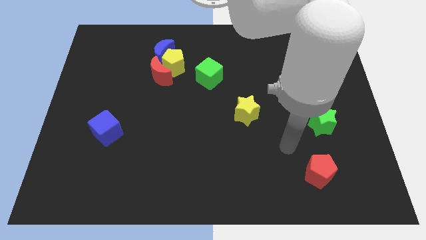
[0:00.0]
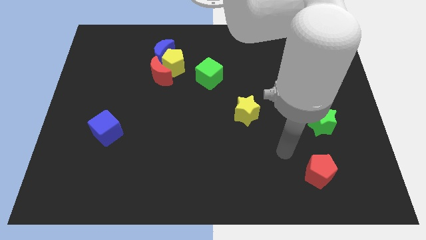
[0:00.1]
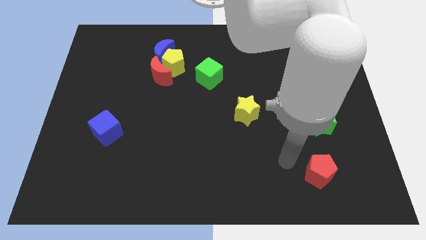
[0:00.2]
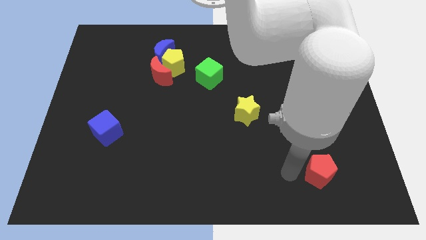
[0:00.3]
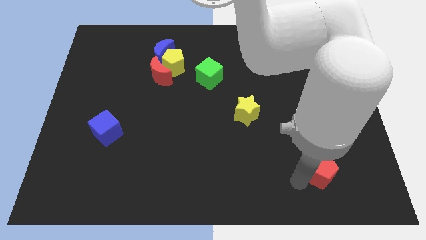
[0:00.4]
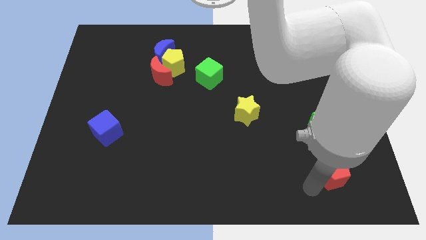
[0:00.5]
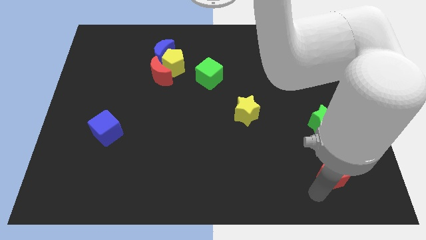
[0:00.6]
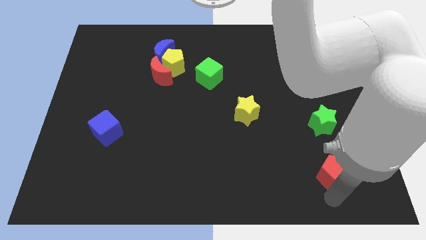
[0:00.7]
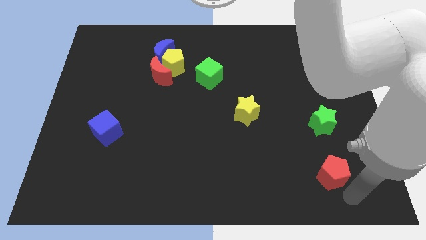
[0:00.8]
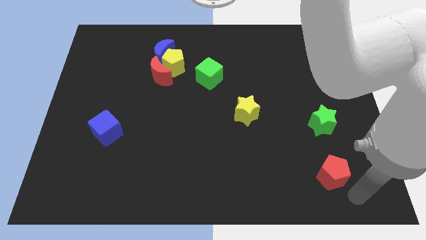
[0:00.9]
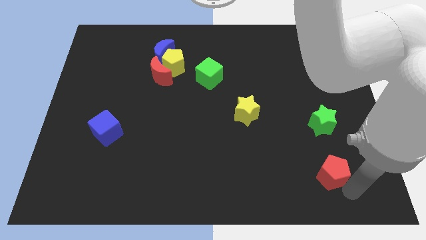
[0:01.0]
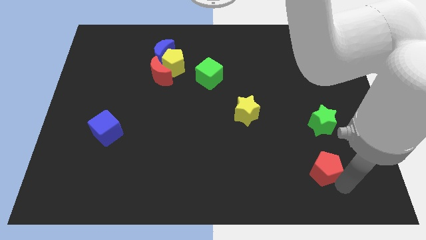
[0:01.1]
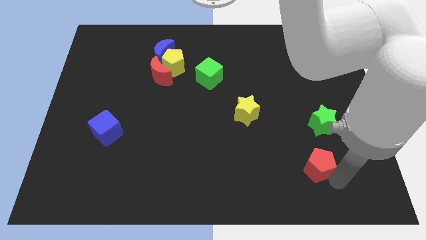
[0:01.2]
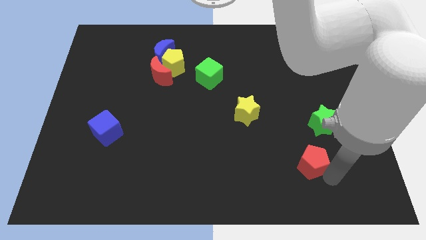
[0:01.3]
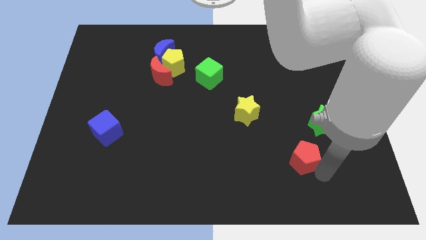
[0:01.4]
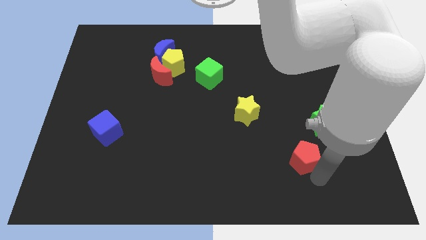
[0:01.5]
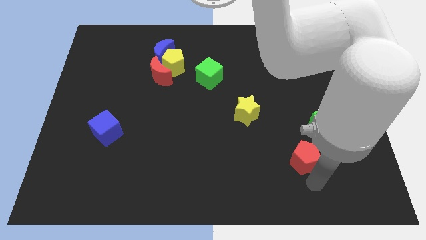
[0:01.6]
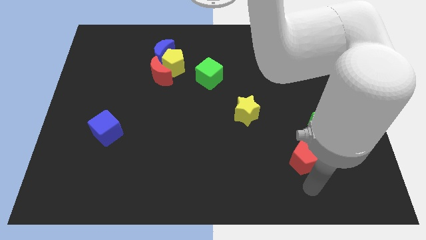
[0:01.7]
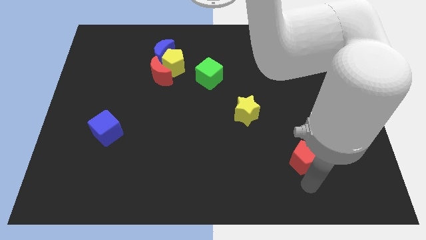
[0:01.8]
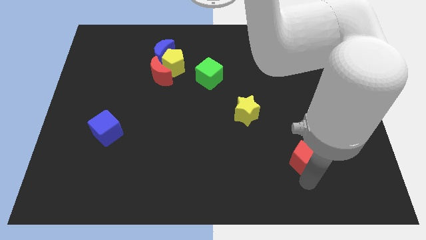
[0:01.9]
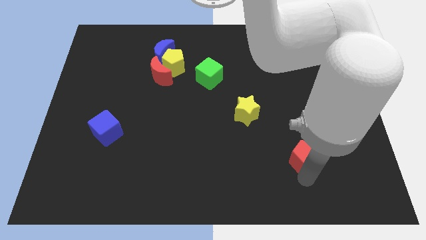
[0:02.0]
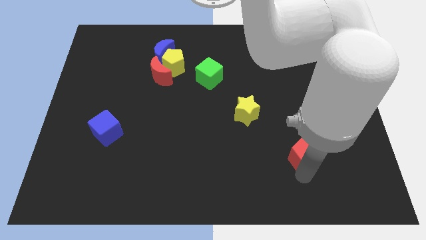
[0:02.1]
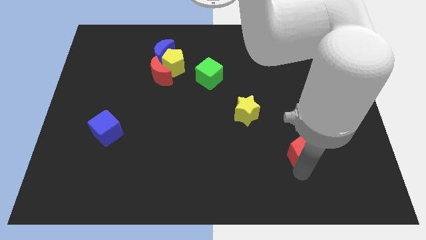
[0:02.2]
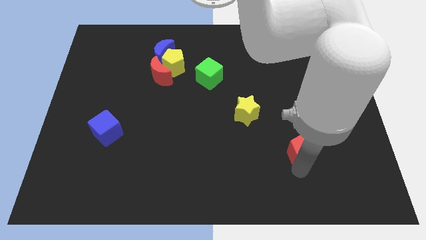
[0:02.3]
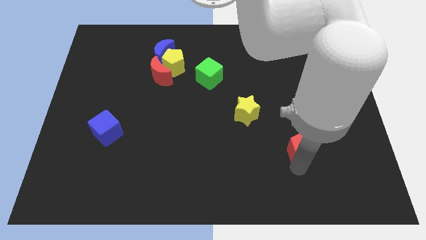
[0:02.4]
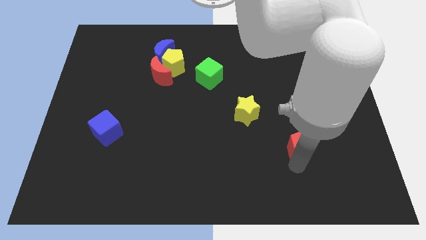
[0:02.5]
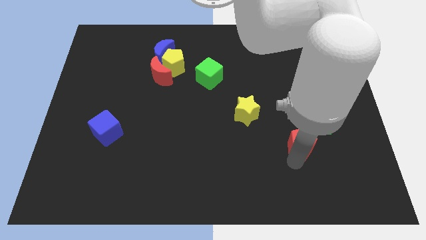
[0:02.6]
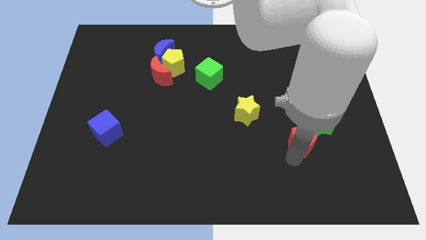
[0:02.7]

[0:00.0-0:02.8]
slide the red pentagon somewhat up

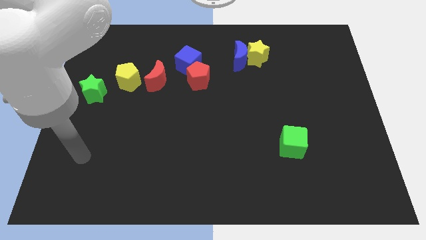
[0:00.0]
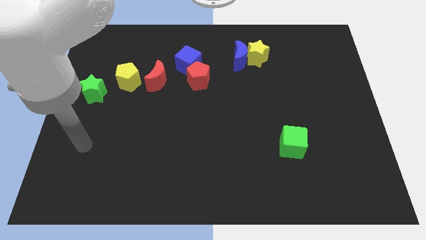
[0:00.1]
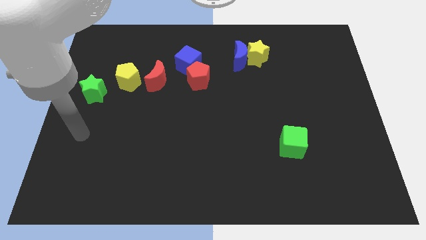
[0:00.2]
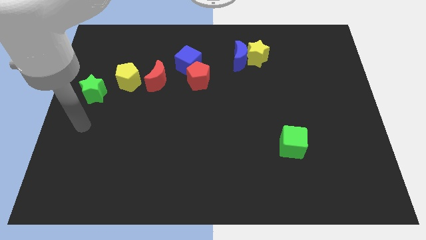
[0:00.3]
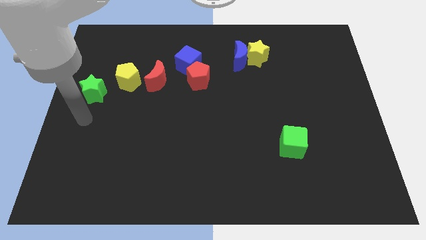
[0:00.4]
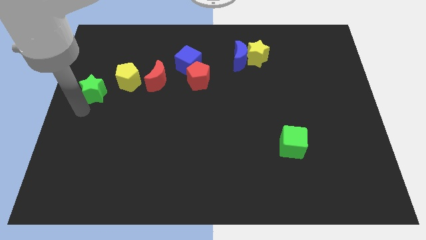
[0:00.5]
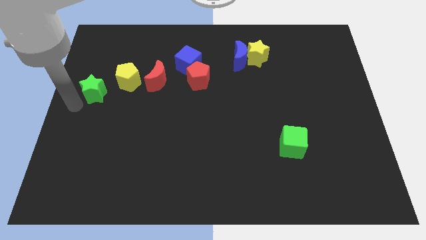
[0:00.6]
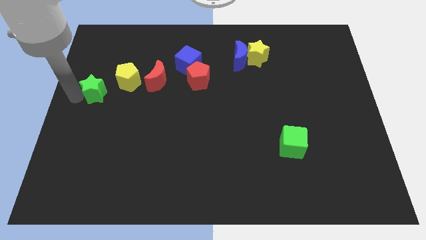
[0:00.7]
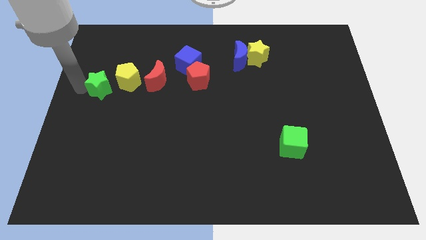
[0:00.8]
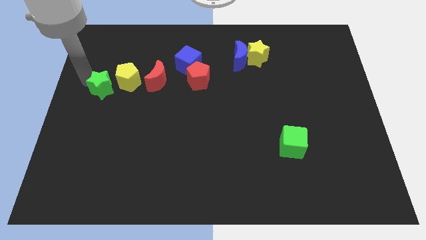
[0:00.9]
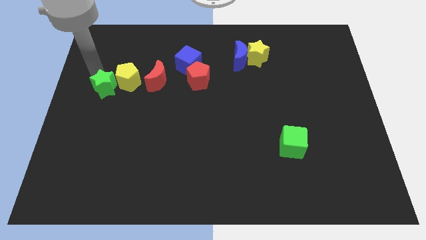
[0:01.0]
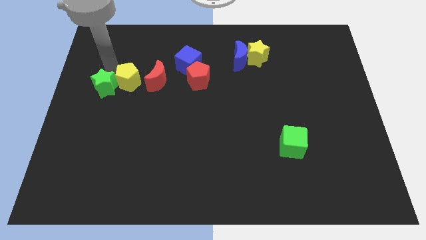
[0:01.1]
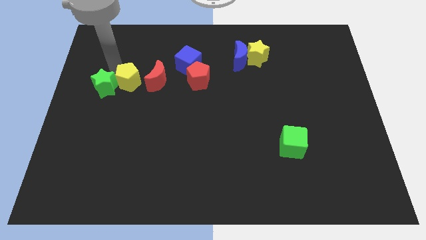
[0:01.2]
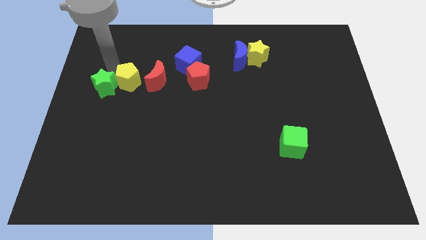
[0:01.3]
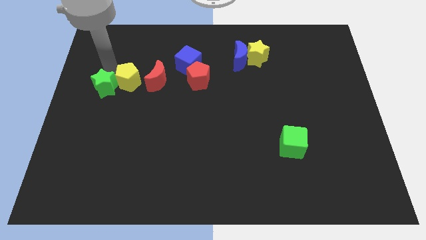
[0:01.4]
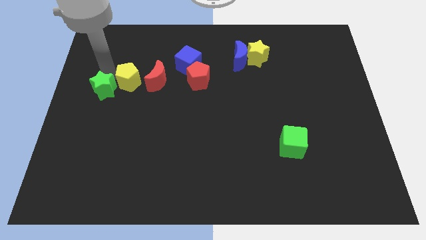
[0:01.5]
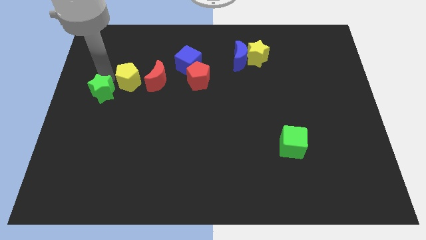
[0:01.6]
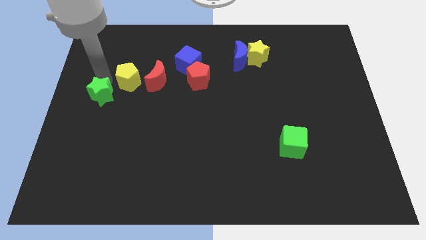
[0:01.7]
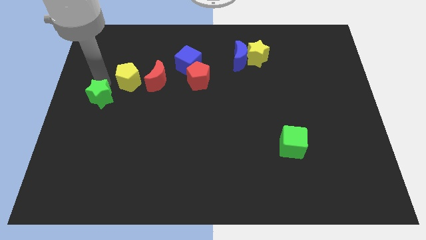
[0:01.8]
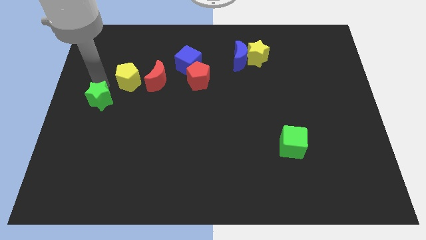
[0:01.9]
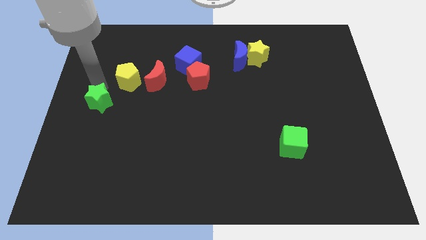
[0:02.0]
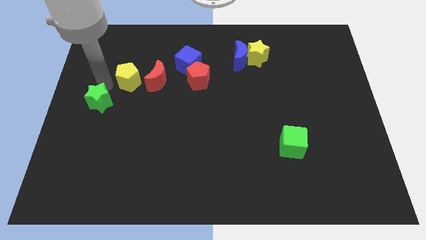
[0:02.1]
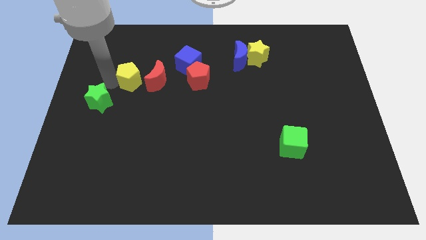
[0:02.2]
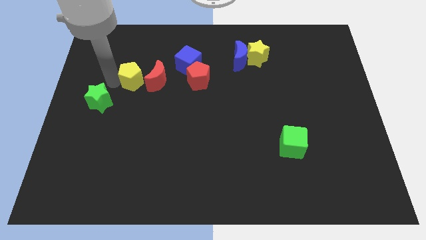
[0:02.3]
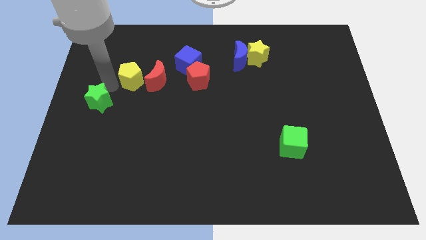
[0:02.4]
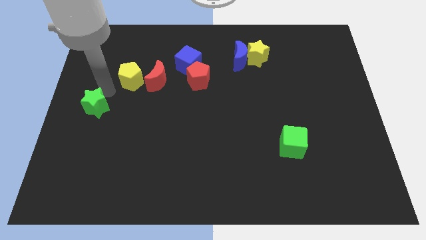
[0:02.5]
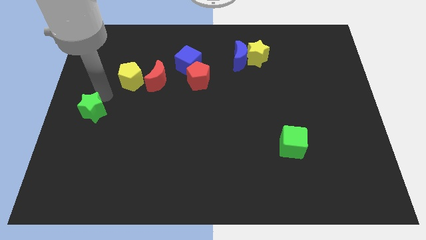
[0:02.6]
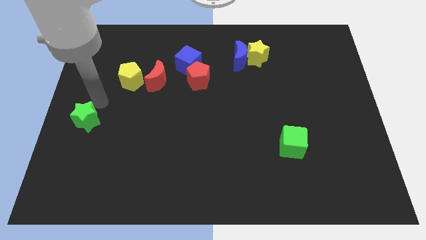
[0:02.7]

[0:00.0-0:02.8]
move the green star somewhat down

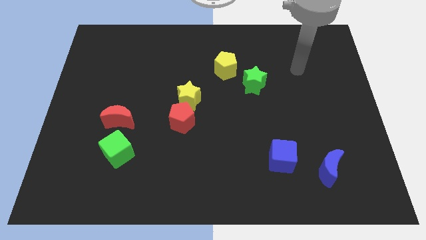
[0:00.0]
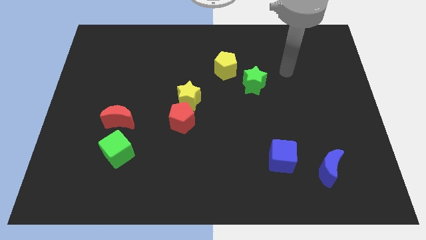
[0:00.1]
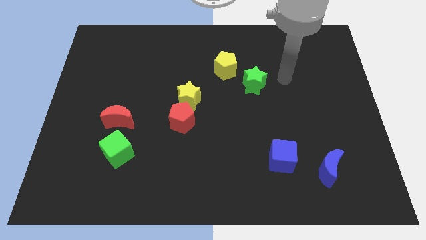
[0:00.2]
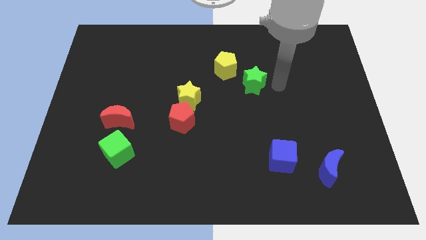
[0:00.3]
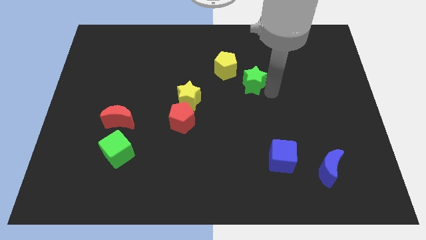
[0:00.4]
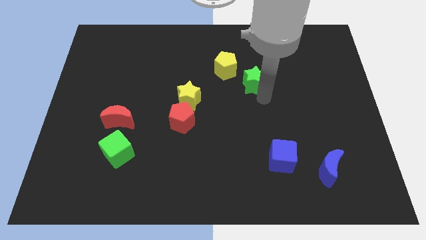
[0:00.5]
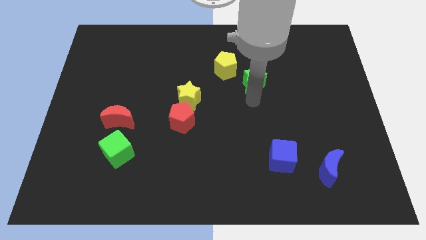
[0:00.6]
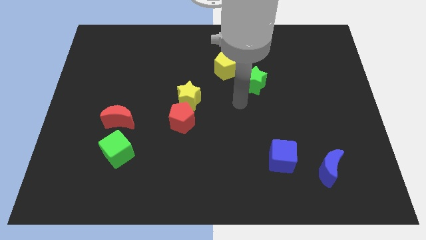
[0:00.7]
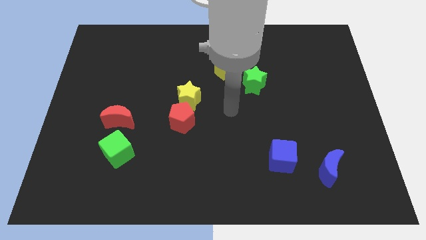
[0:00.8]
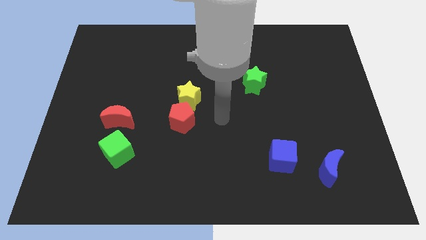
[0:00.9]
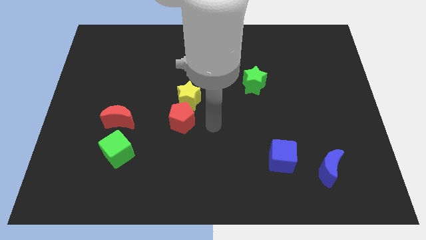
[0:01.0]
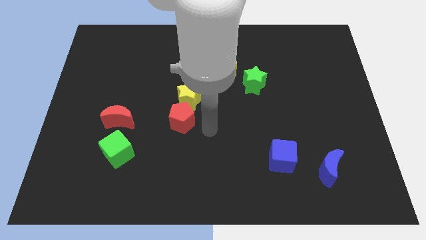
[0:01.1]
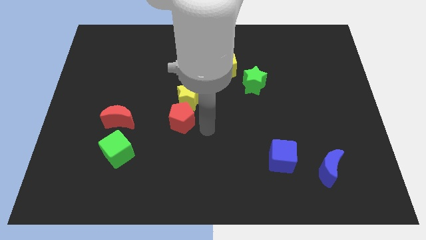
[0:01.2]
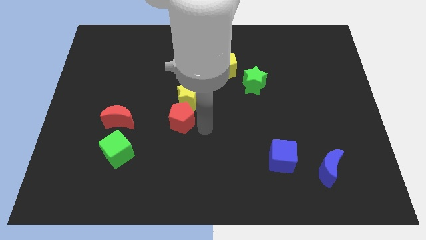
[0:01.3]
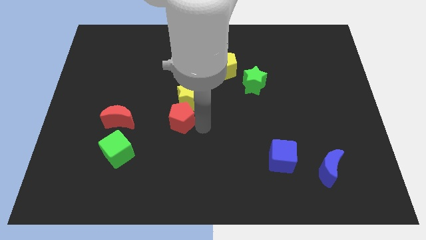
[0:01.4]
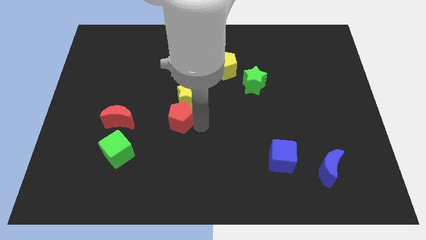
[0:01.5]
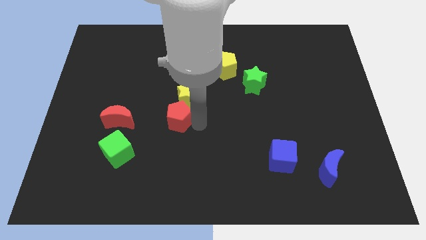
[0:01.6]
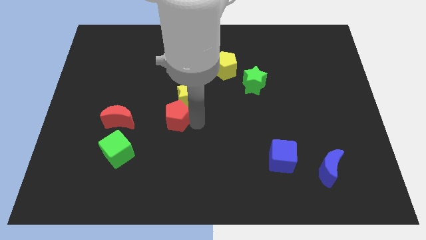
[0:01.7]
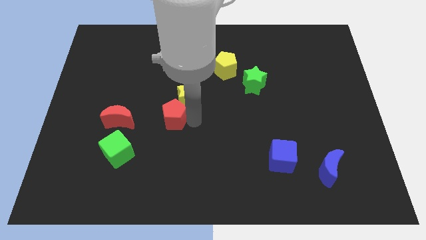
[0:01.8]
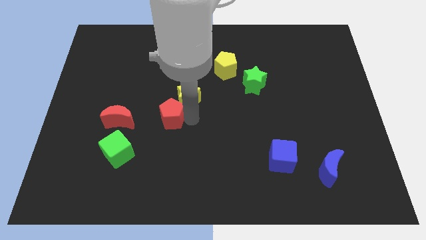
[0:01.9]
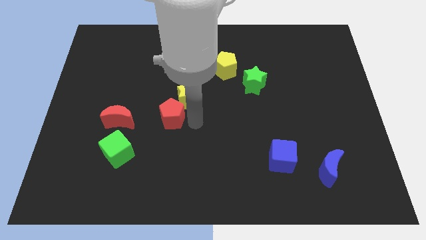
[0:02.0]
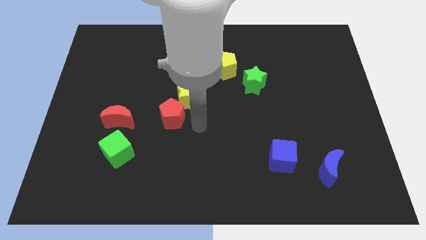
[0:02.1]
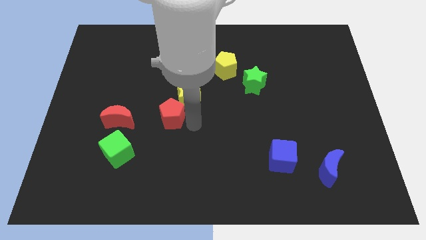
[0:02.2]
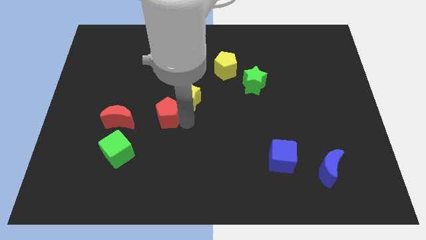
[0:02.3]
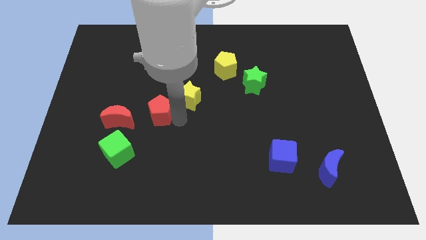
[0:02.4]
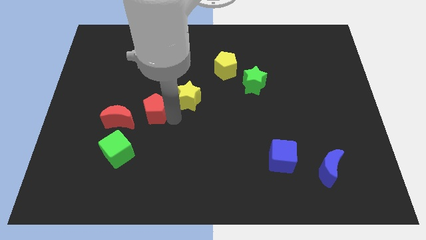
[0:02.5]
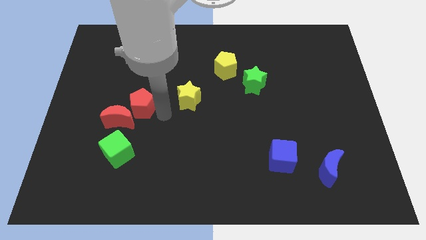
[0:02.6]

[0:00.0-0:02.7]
slide the red pentagon slightly to the left
